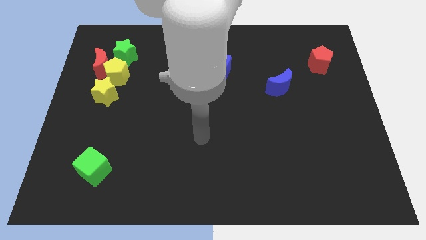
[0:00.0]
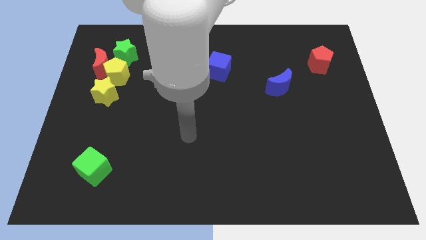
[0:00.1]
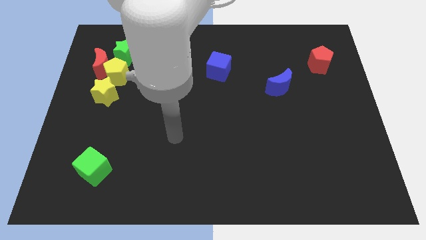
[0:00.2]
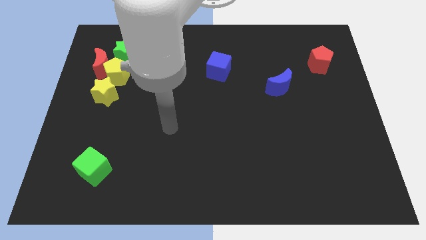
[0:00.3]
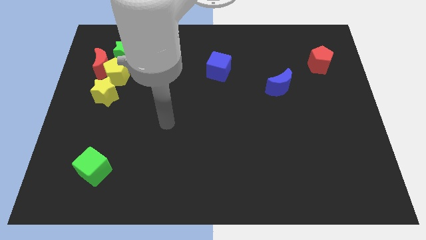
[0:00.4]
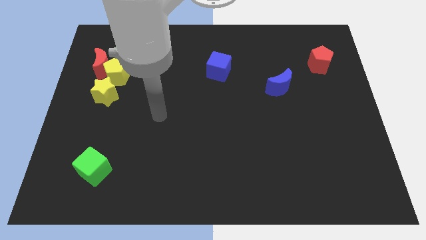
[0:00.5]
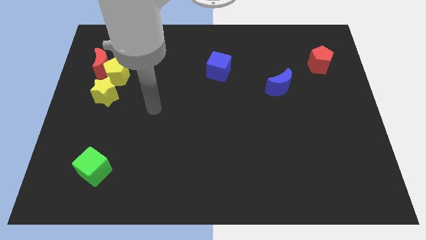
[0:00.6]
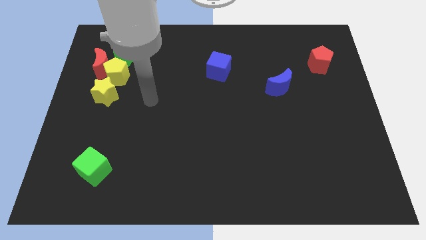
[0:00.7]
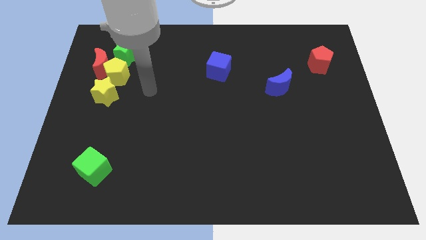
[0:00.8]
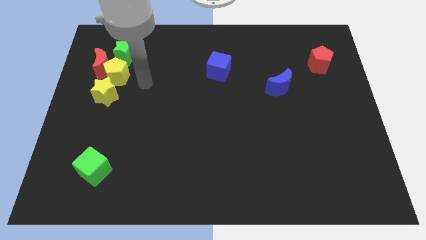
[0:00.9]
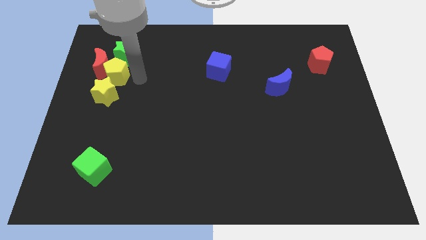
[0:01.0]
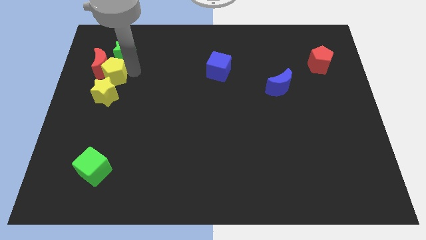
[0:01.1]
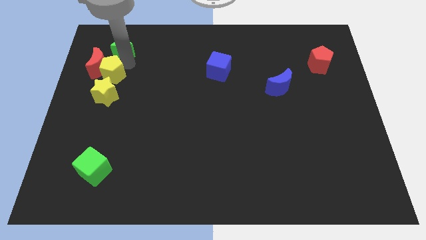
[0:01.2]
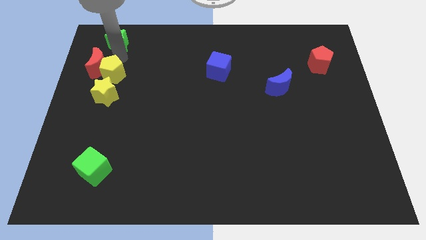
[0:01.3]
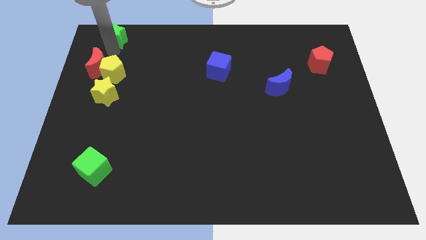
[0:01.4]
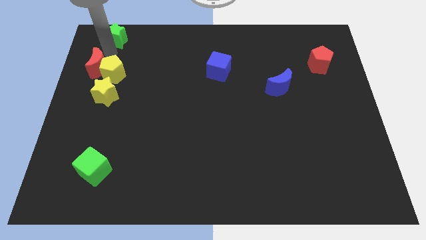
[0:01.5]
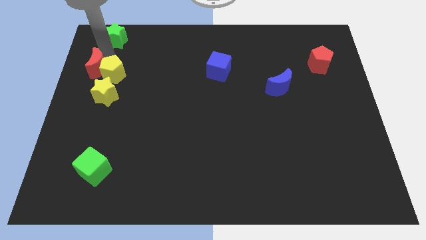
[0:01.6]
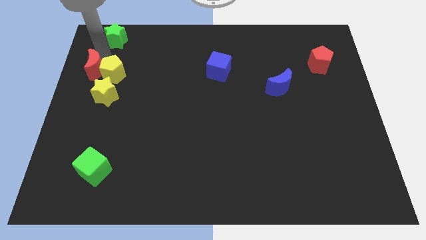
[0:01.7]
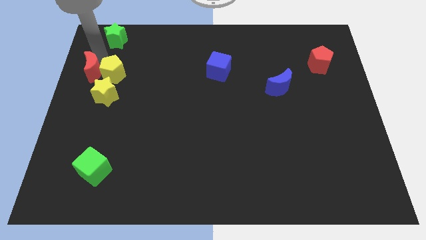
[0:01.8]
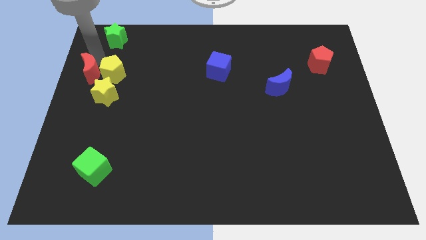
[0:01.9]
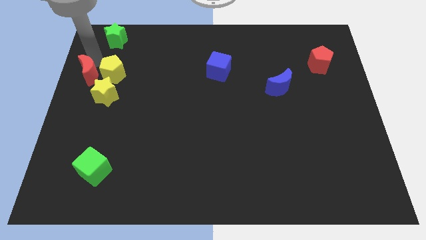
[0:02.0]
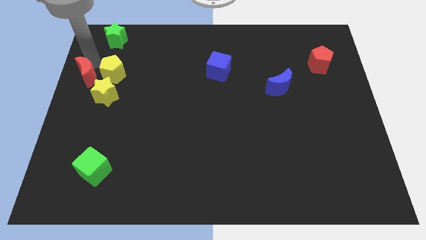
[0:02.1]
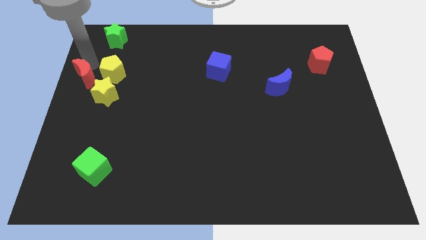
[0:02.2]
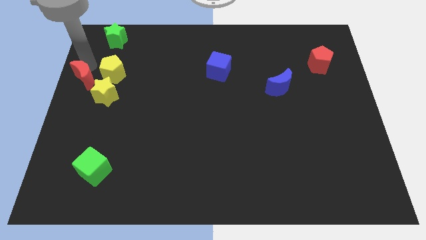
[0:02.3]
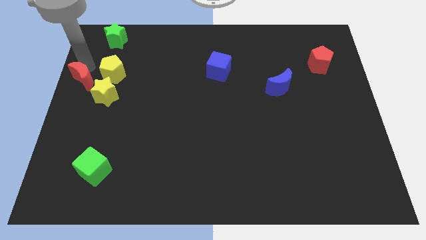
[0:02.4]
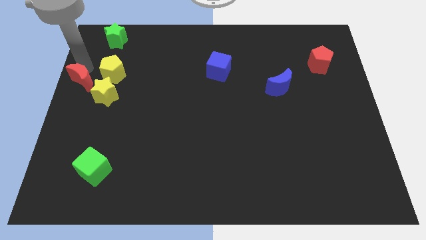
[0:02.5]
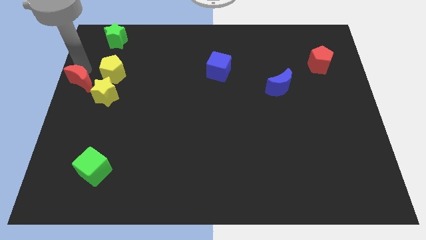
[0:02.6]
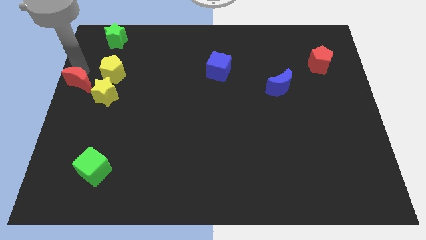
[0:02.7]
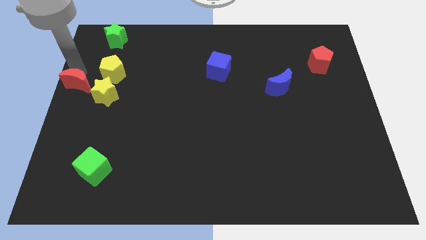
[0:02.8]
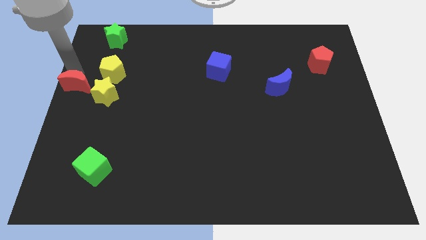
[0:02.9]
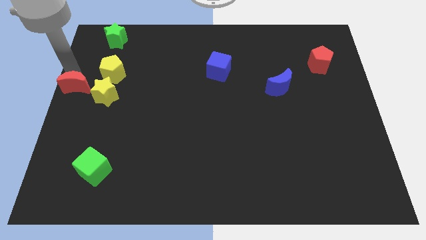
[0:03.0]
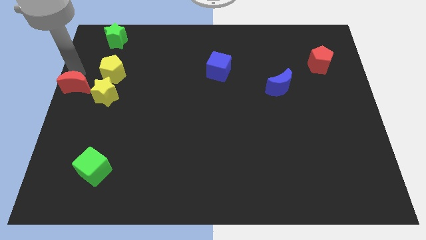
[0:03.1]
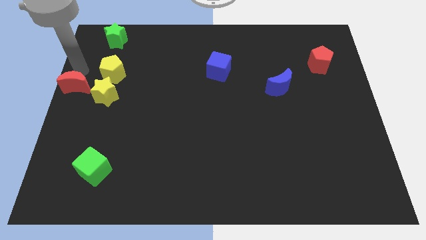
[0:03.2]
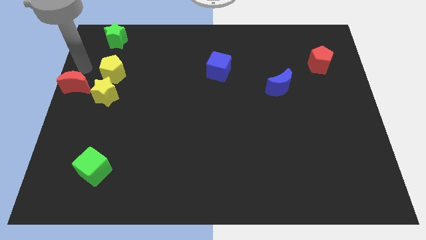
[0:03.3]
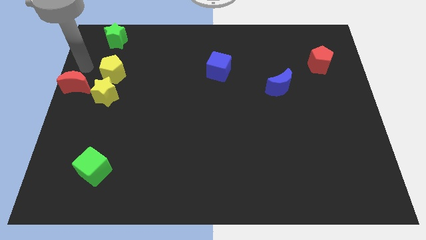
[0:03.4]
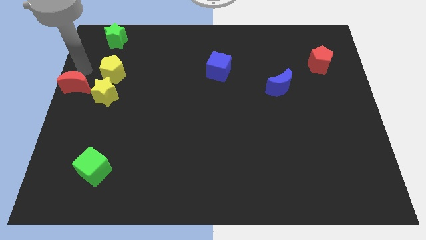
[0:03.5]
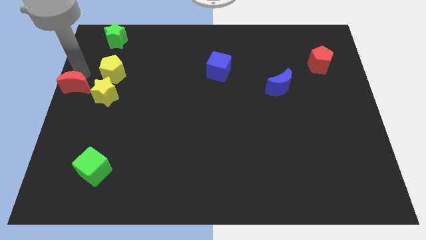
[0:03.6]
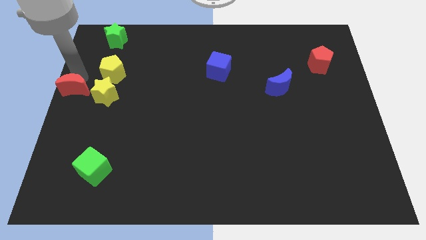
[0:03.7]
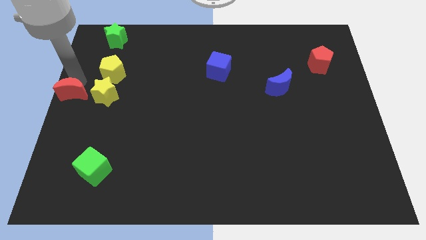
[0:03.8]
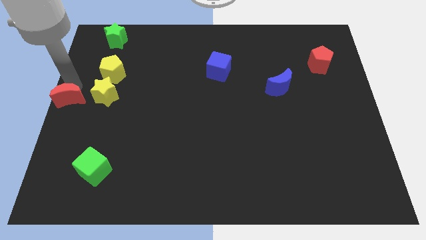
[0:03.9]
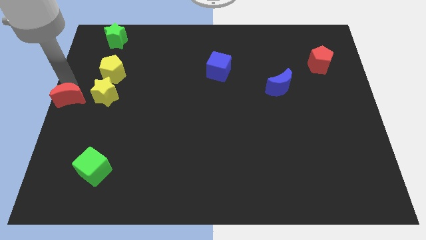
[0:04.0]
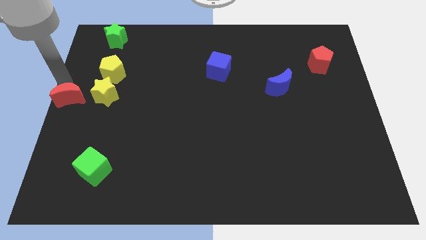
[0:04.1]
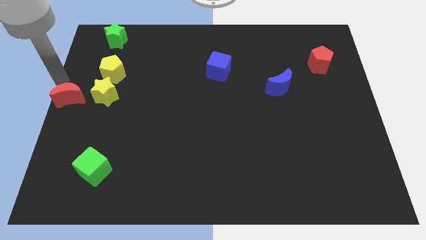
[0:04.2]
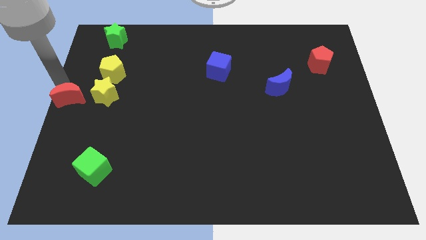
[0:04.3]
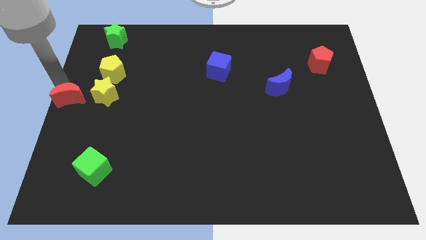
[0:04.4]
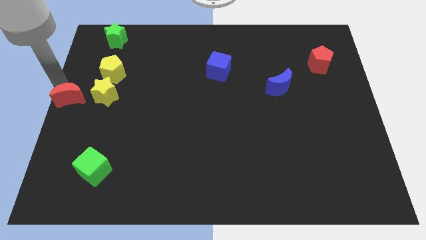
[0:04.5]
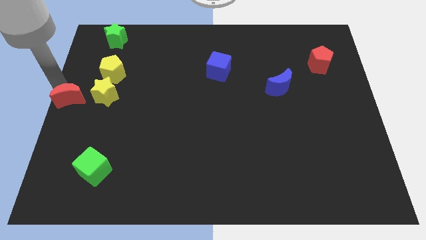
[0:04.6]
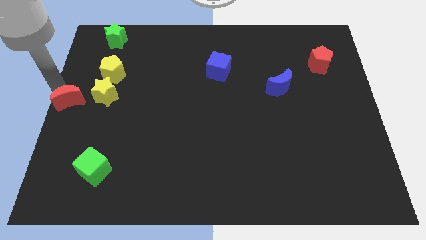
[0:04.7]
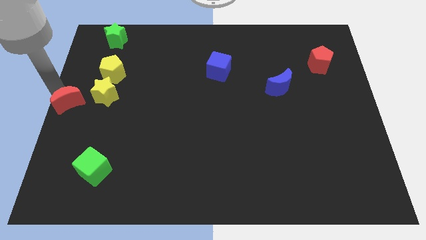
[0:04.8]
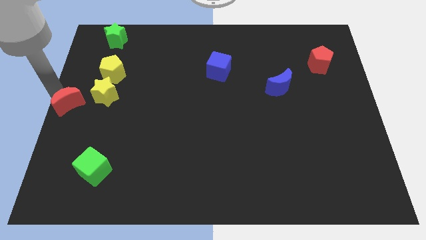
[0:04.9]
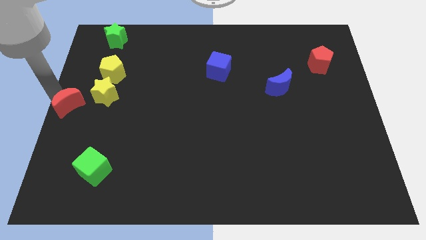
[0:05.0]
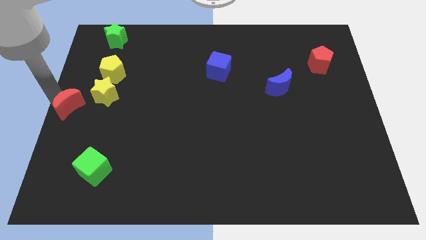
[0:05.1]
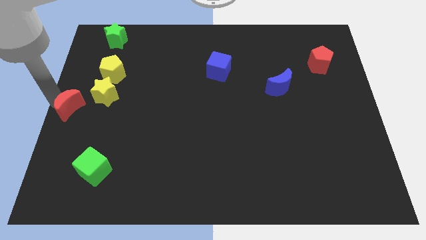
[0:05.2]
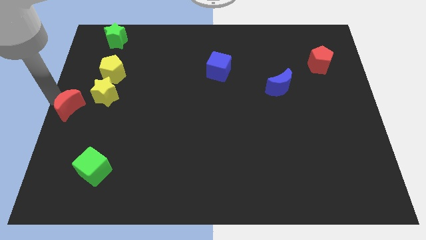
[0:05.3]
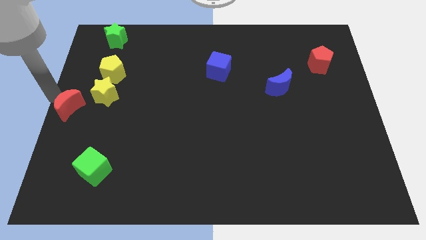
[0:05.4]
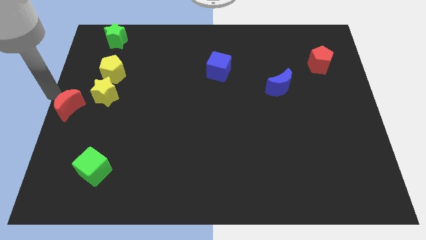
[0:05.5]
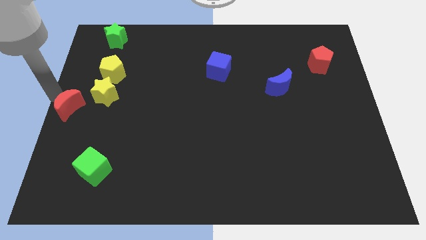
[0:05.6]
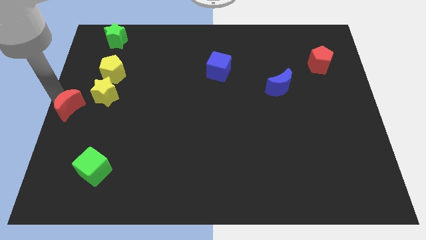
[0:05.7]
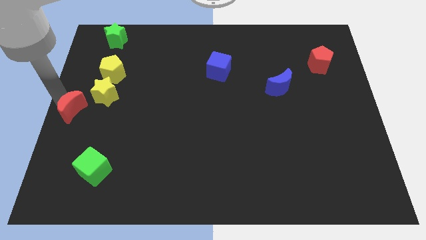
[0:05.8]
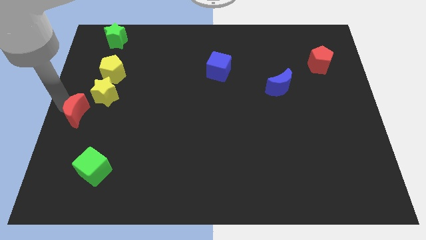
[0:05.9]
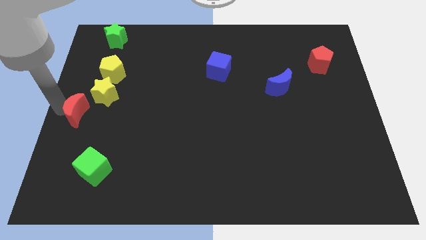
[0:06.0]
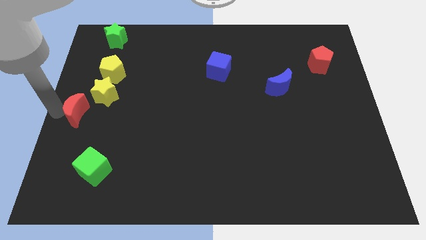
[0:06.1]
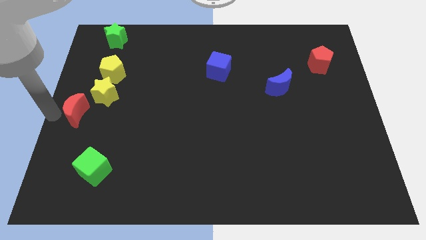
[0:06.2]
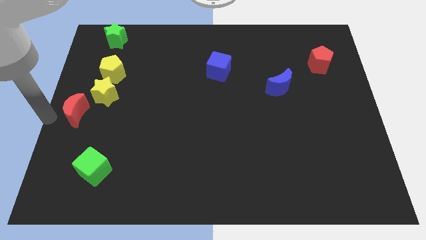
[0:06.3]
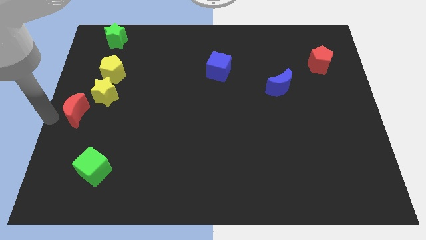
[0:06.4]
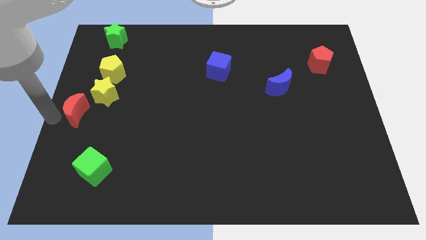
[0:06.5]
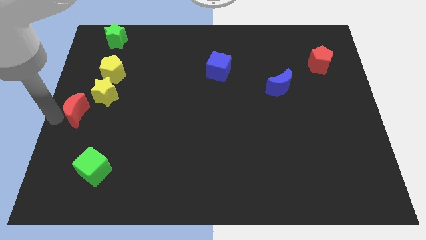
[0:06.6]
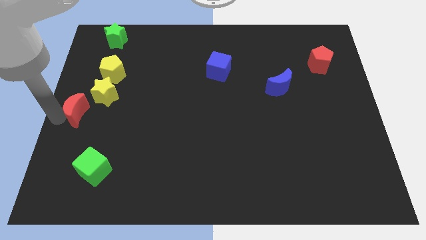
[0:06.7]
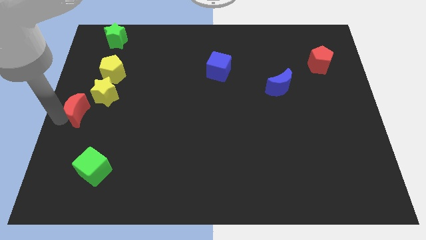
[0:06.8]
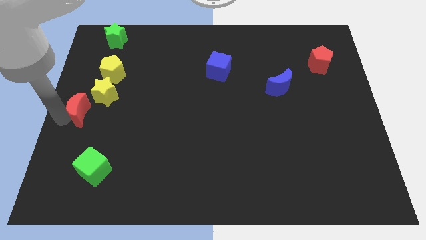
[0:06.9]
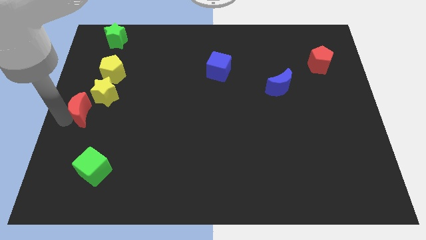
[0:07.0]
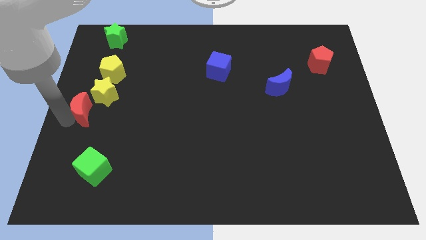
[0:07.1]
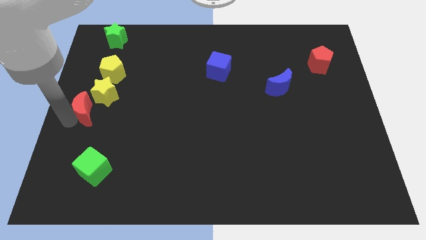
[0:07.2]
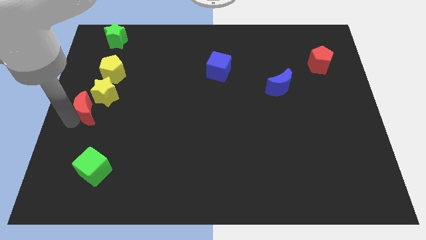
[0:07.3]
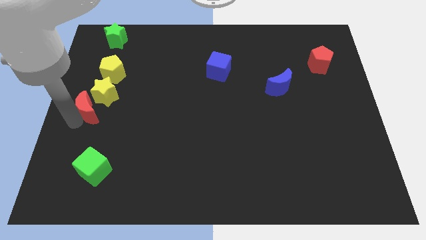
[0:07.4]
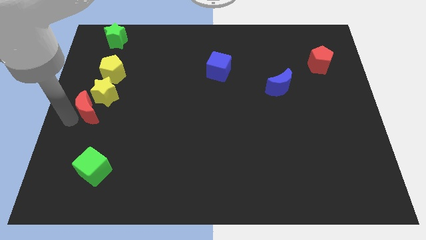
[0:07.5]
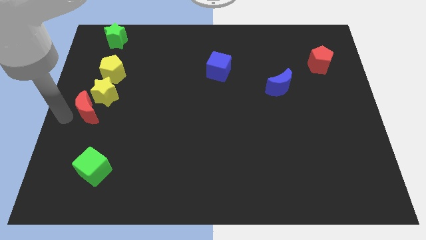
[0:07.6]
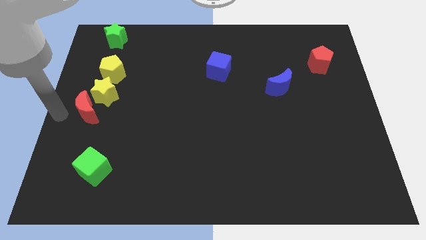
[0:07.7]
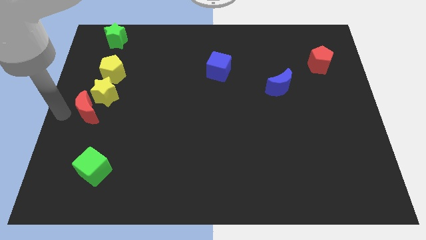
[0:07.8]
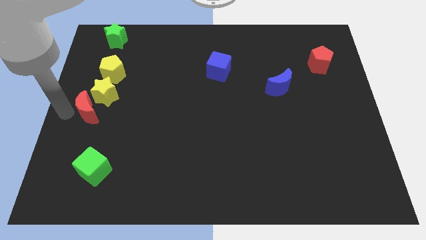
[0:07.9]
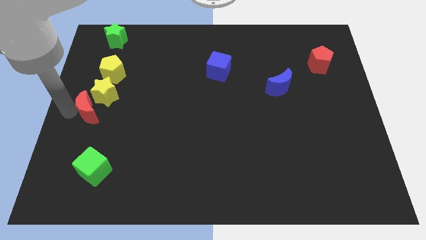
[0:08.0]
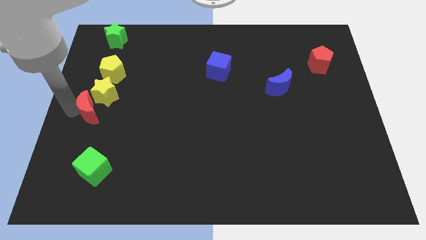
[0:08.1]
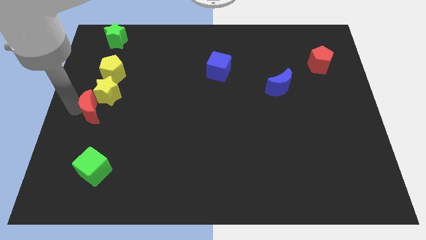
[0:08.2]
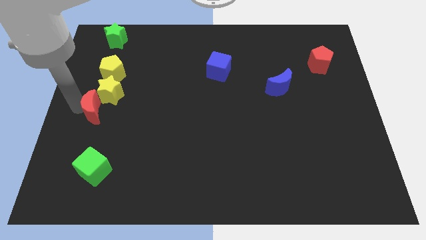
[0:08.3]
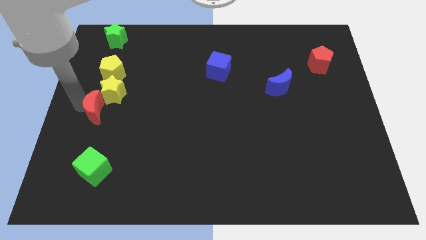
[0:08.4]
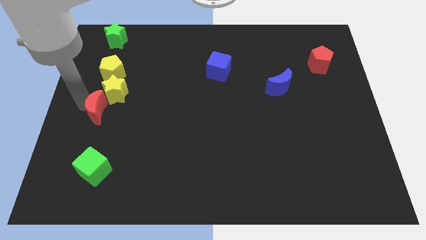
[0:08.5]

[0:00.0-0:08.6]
push the red moon somewhat down and then to the right

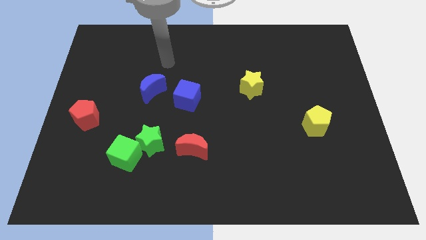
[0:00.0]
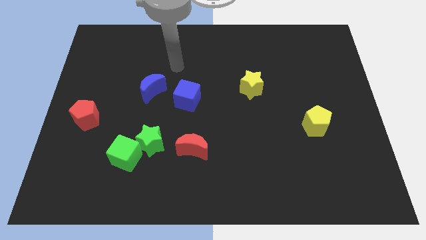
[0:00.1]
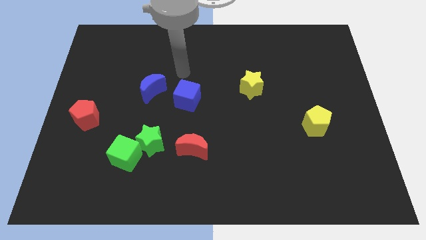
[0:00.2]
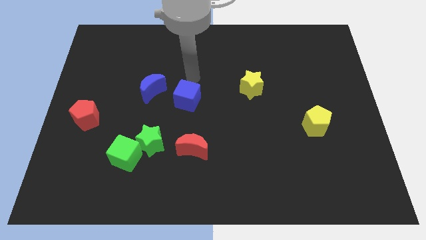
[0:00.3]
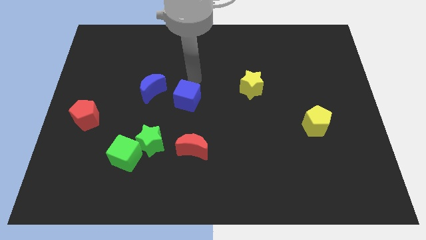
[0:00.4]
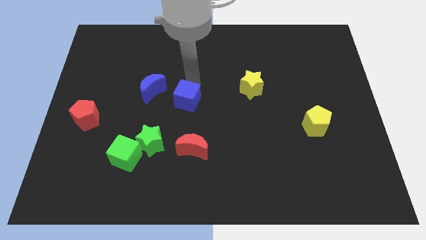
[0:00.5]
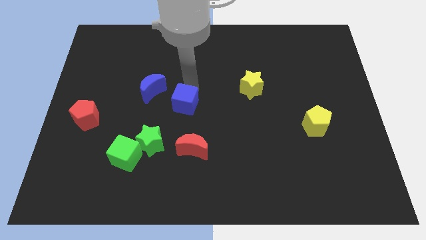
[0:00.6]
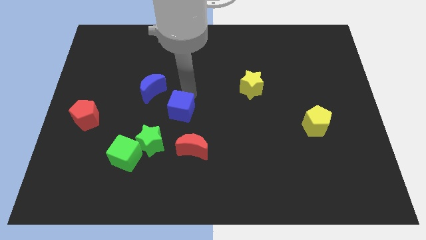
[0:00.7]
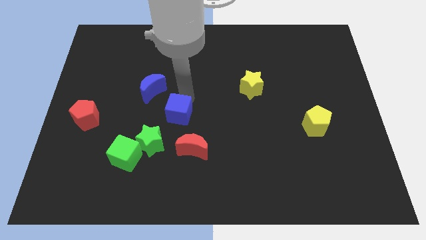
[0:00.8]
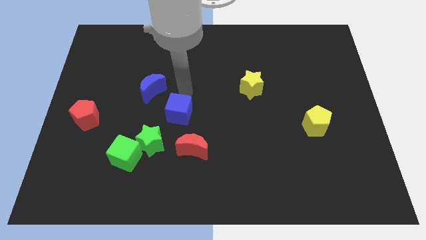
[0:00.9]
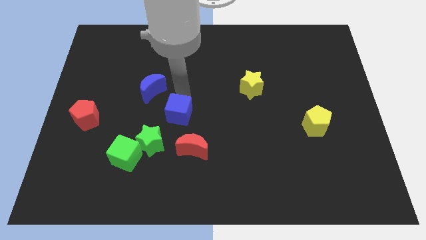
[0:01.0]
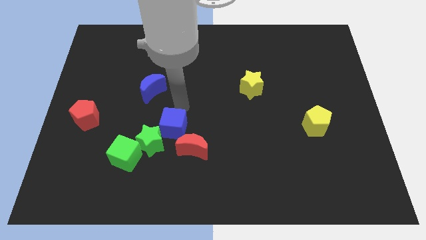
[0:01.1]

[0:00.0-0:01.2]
slightly move the blue cube downwards
